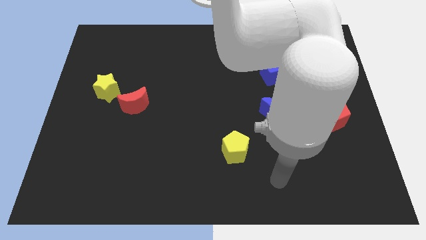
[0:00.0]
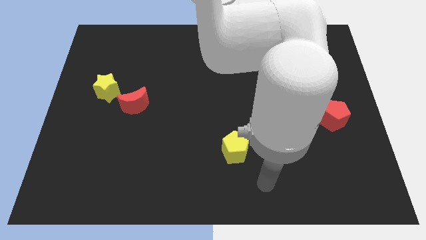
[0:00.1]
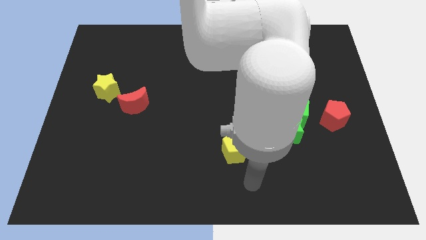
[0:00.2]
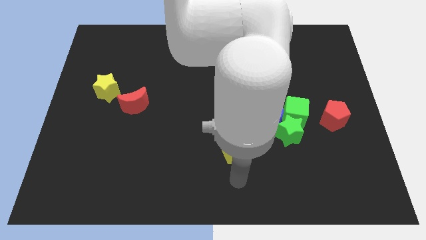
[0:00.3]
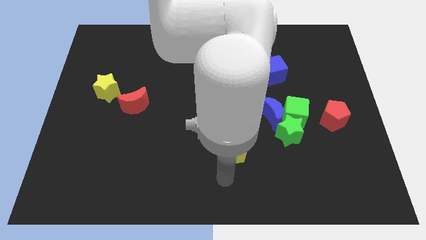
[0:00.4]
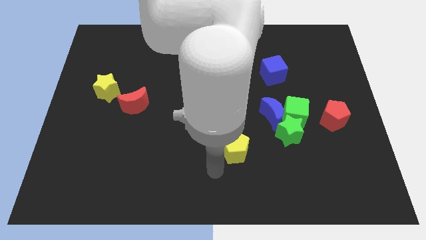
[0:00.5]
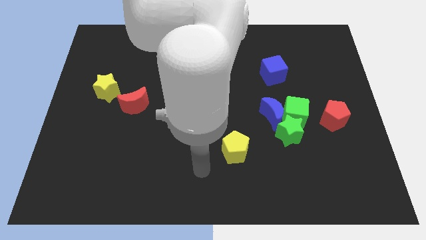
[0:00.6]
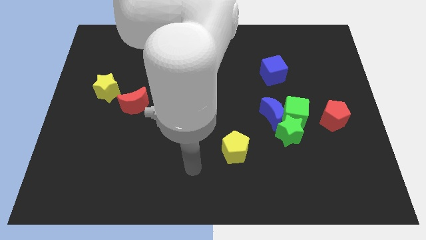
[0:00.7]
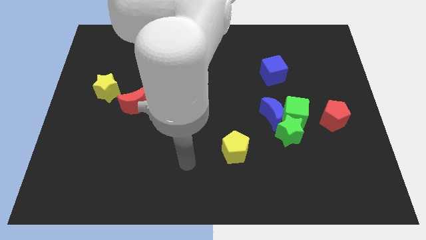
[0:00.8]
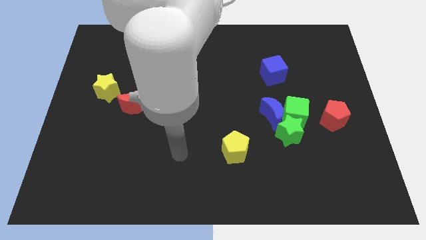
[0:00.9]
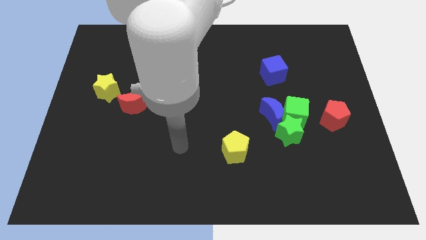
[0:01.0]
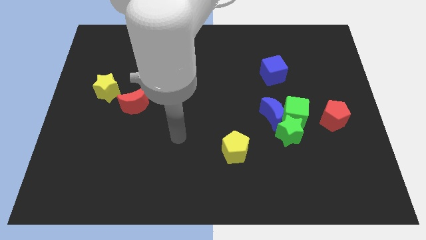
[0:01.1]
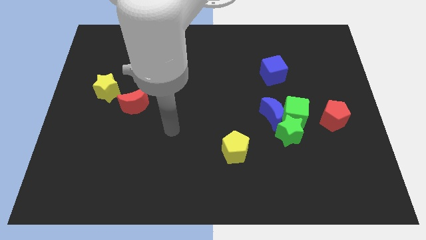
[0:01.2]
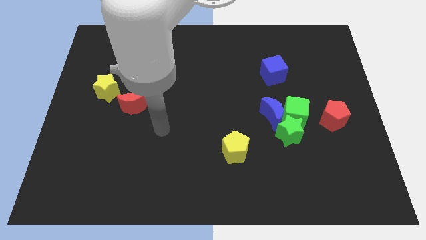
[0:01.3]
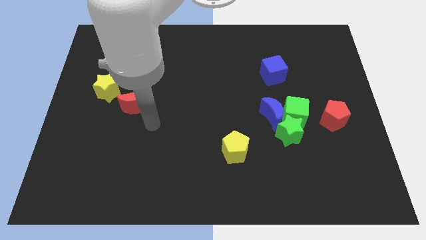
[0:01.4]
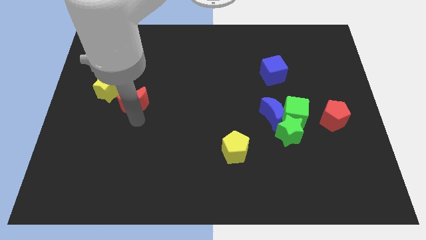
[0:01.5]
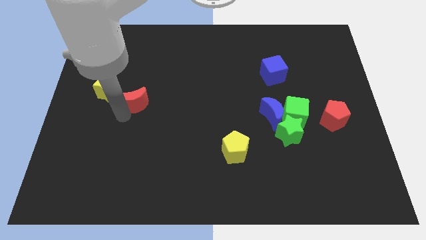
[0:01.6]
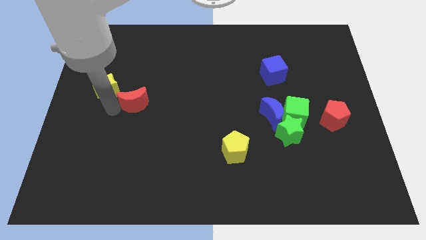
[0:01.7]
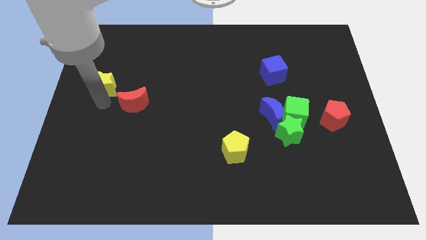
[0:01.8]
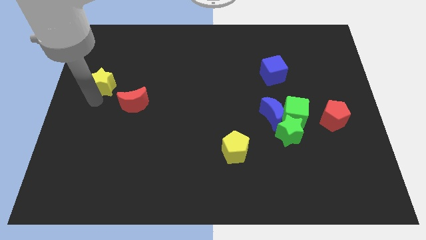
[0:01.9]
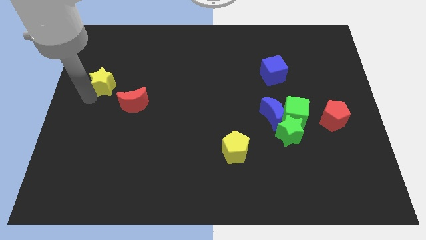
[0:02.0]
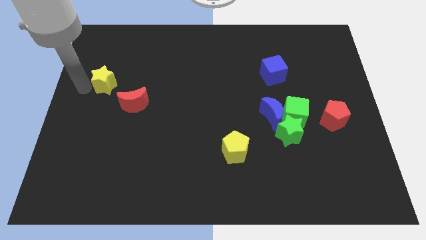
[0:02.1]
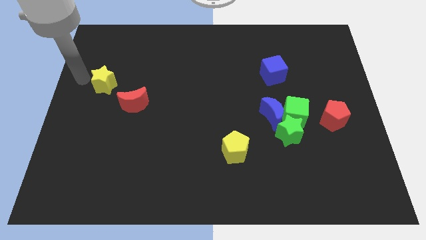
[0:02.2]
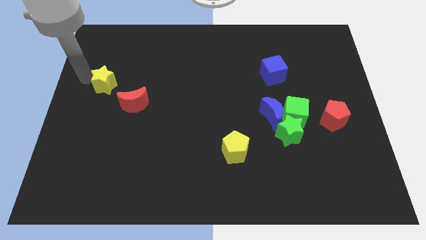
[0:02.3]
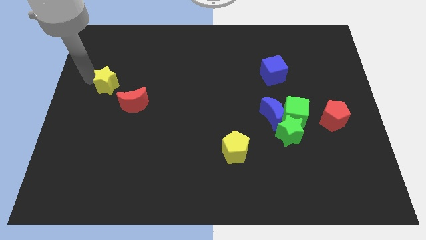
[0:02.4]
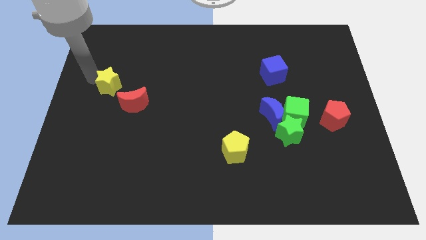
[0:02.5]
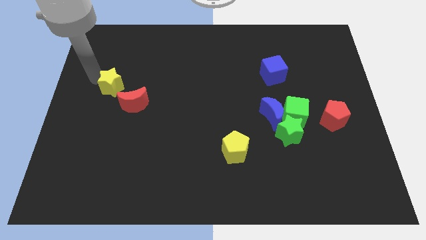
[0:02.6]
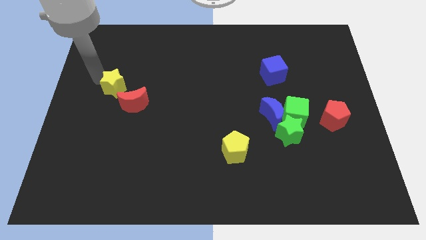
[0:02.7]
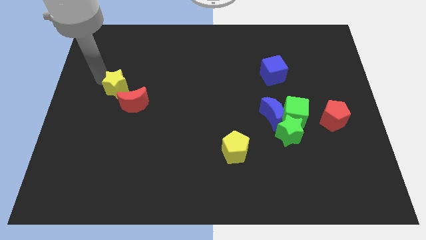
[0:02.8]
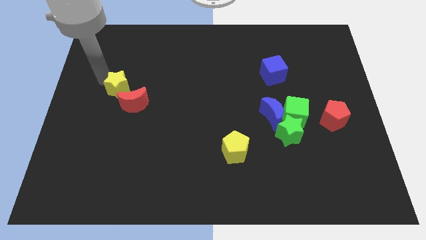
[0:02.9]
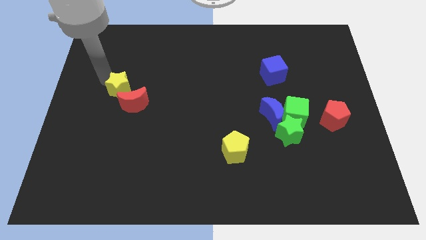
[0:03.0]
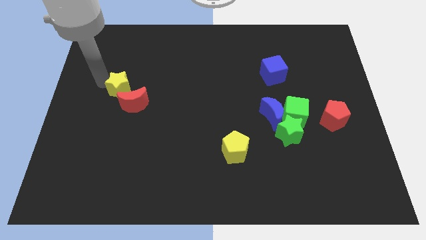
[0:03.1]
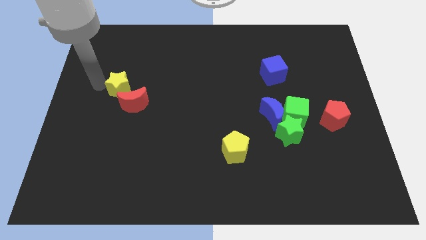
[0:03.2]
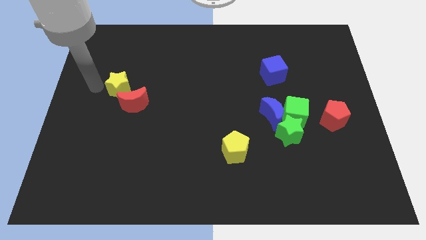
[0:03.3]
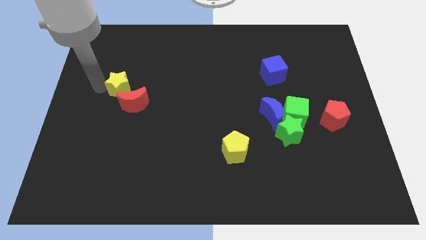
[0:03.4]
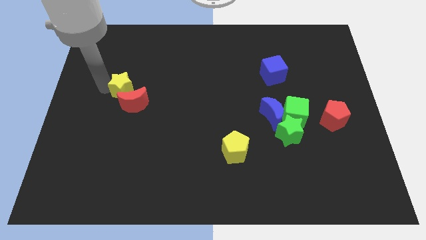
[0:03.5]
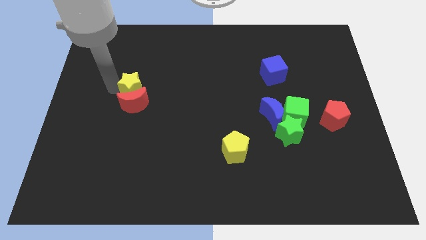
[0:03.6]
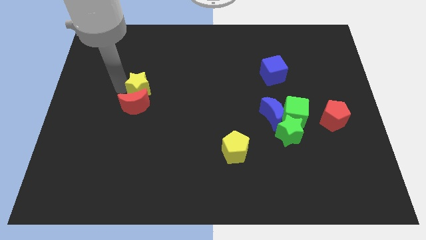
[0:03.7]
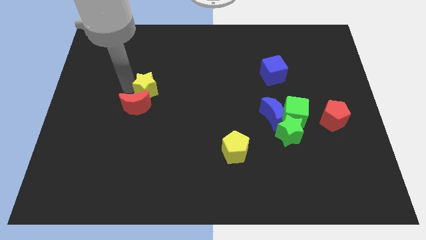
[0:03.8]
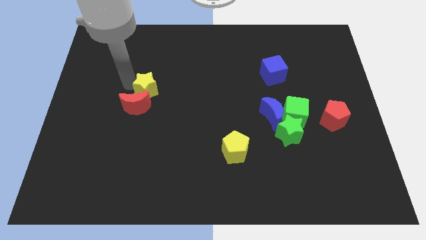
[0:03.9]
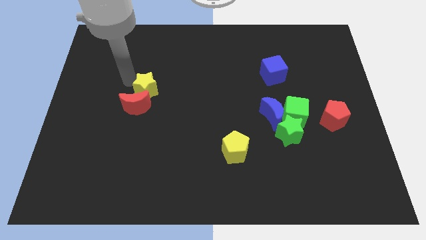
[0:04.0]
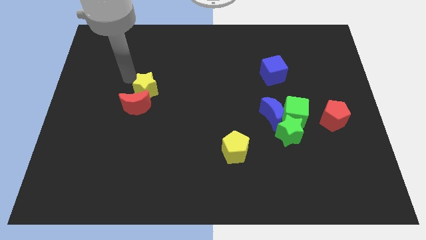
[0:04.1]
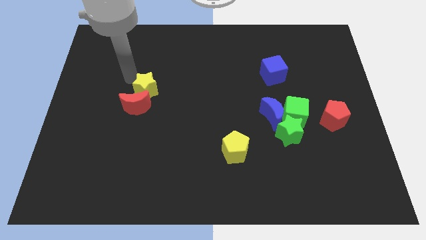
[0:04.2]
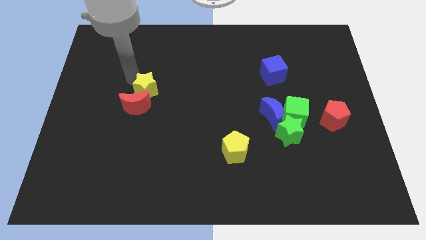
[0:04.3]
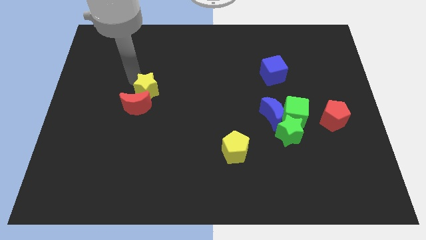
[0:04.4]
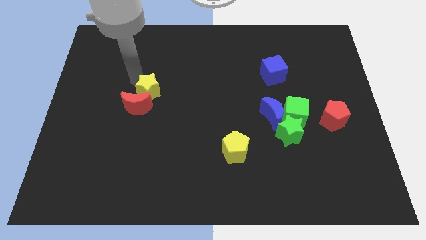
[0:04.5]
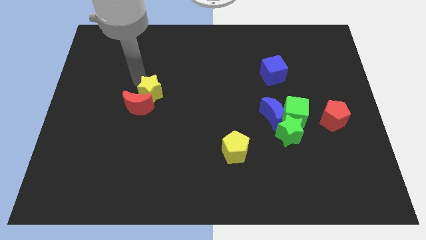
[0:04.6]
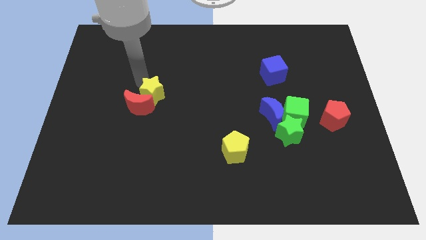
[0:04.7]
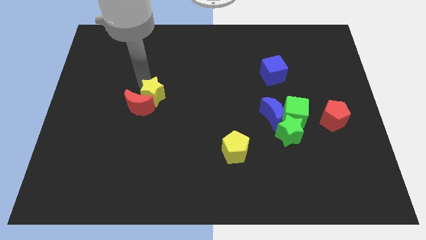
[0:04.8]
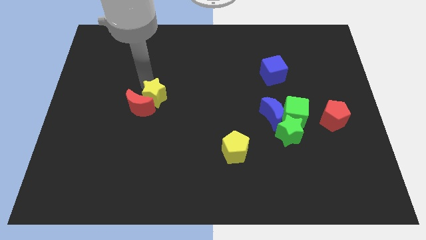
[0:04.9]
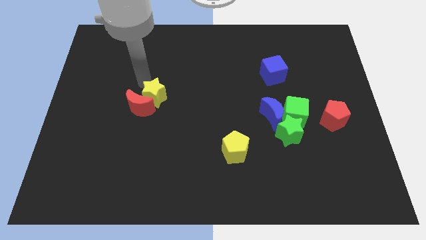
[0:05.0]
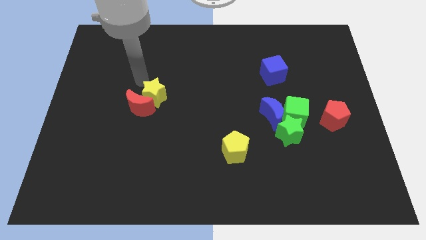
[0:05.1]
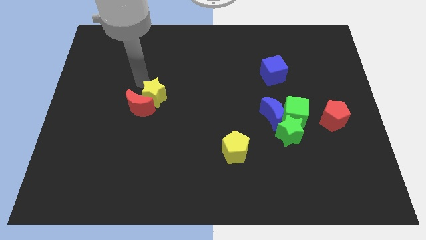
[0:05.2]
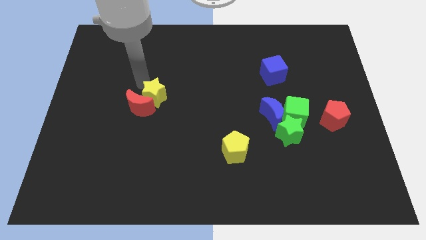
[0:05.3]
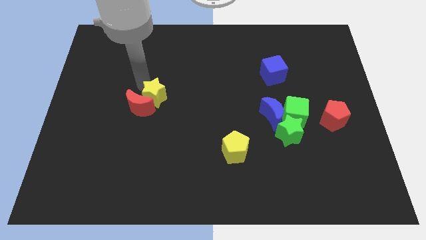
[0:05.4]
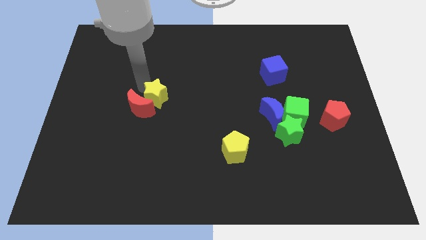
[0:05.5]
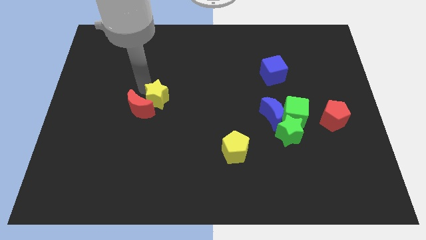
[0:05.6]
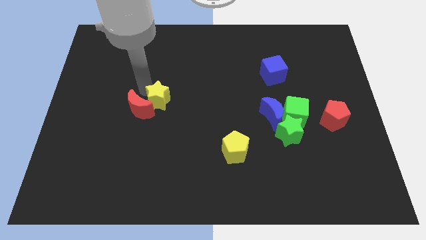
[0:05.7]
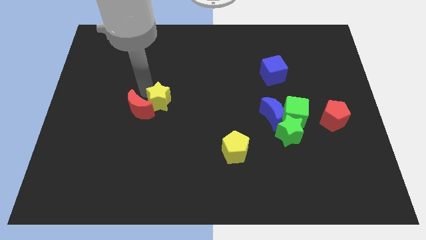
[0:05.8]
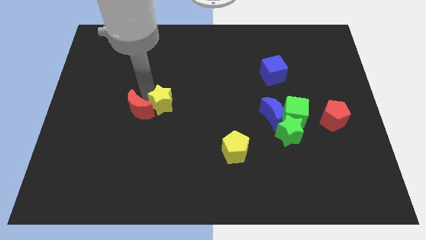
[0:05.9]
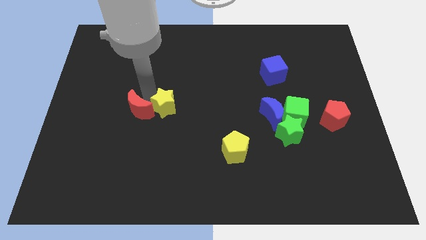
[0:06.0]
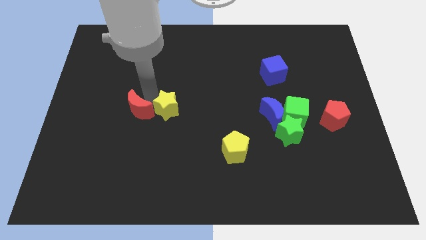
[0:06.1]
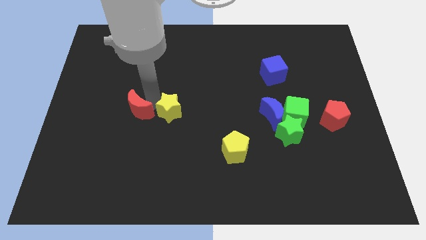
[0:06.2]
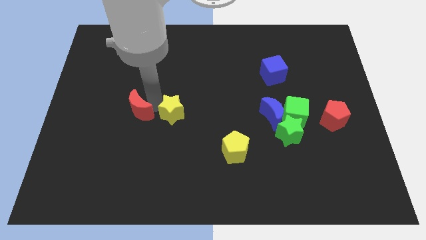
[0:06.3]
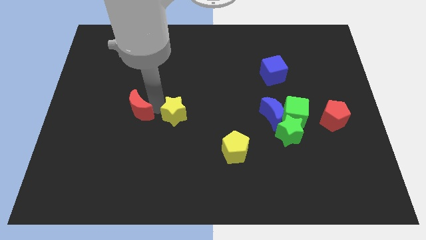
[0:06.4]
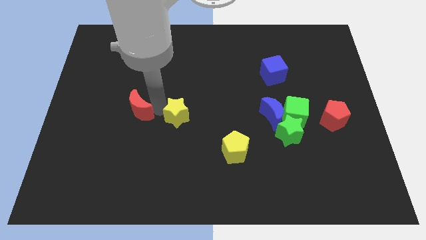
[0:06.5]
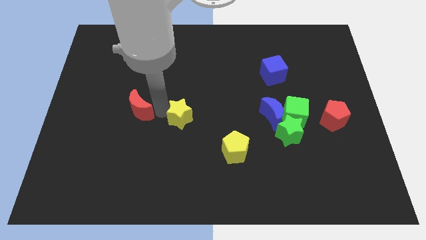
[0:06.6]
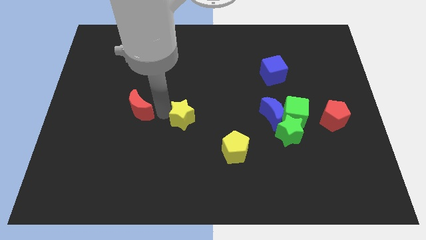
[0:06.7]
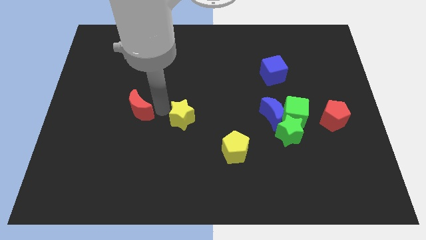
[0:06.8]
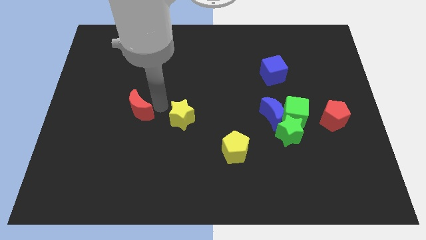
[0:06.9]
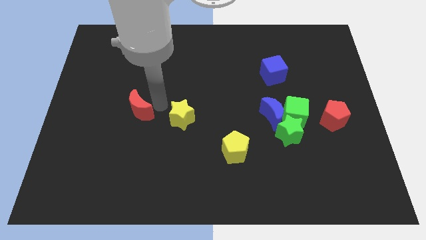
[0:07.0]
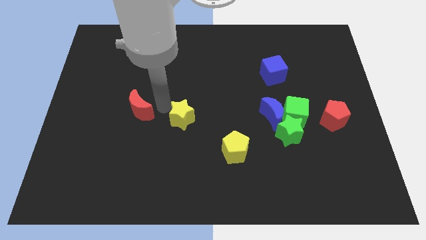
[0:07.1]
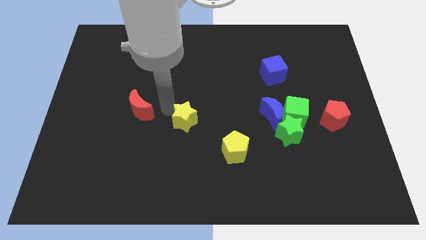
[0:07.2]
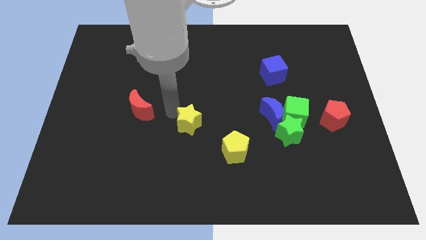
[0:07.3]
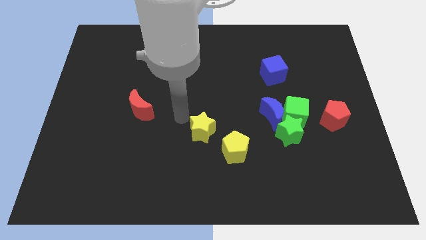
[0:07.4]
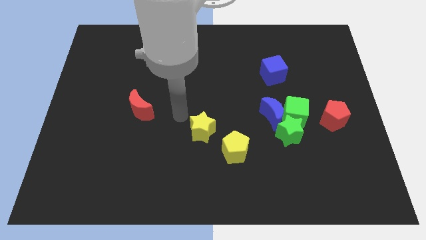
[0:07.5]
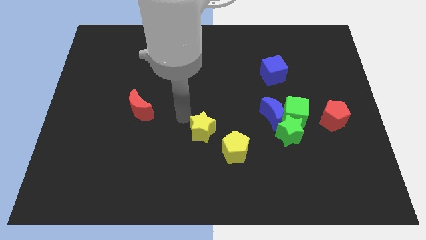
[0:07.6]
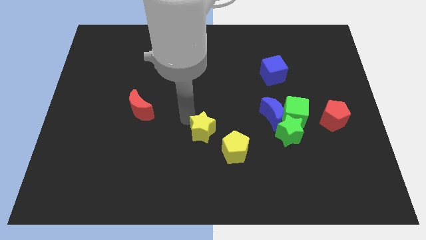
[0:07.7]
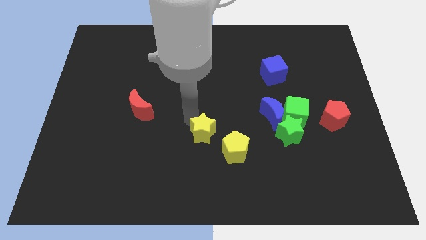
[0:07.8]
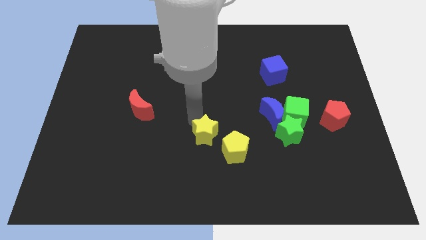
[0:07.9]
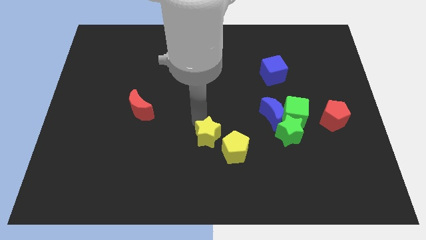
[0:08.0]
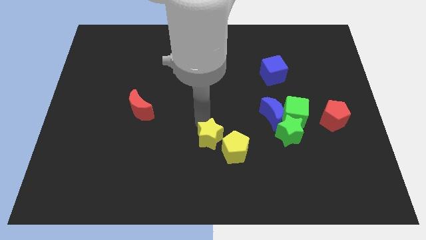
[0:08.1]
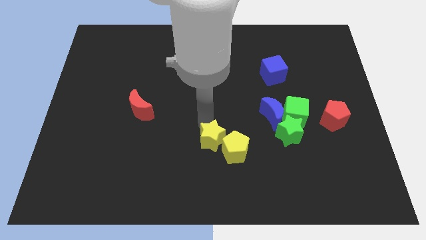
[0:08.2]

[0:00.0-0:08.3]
put the yellow star to the yellow pentagon
